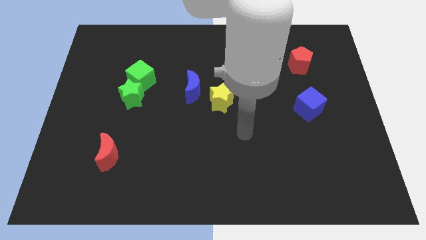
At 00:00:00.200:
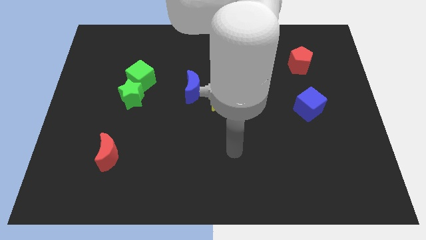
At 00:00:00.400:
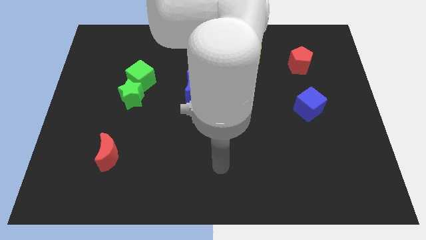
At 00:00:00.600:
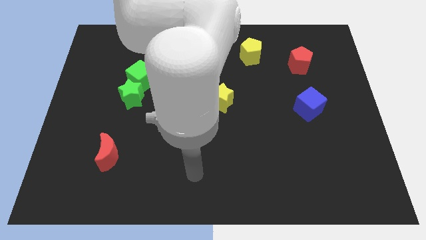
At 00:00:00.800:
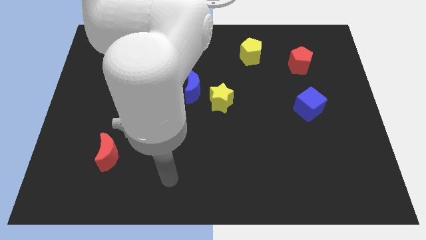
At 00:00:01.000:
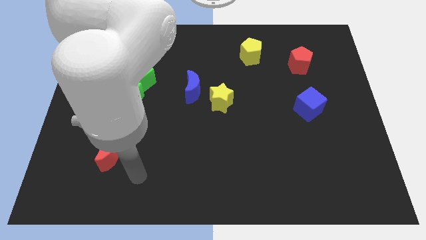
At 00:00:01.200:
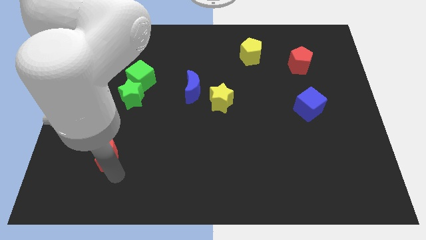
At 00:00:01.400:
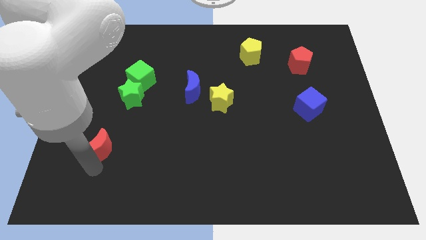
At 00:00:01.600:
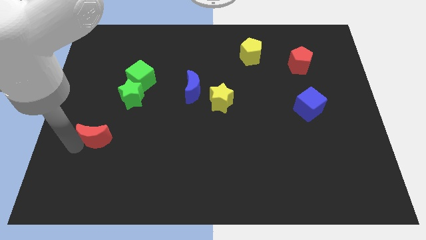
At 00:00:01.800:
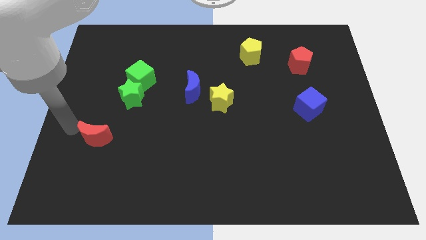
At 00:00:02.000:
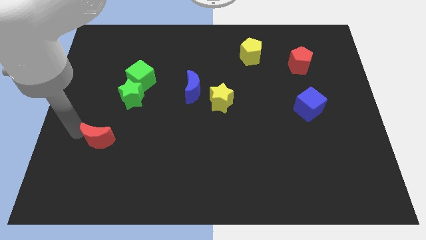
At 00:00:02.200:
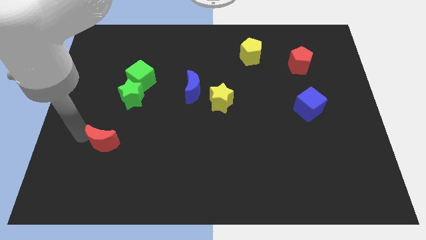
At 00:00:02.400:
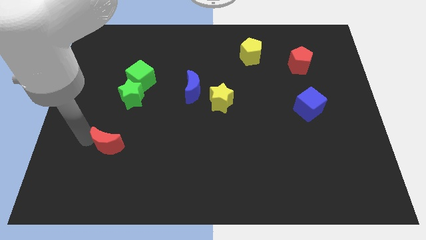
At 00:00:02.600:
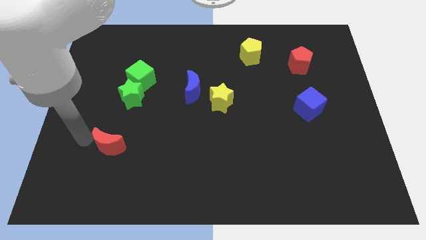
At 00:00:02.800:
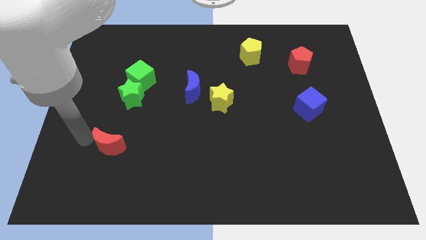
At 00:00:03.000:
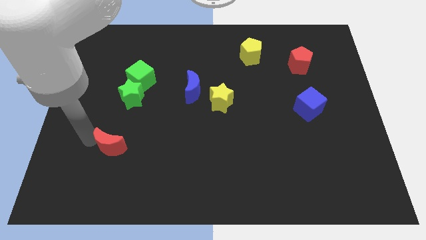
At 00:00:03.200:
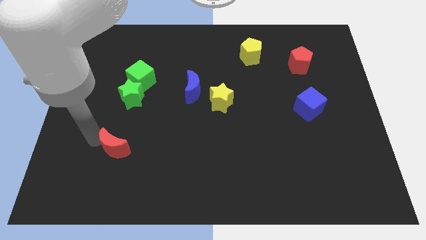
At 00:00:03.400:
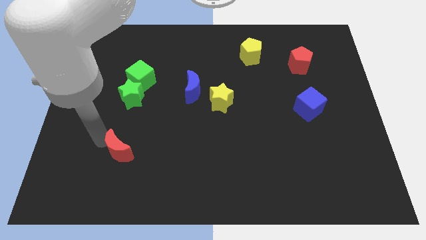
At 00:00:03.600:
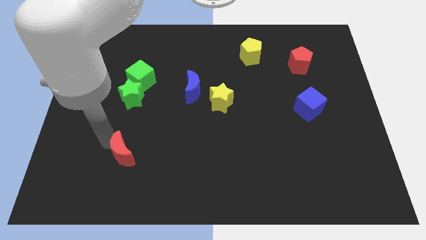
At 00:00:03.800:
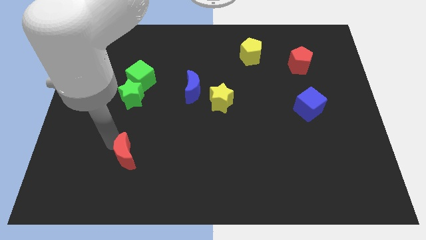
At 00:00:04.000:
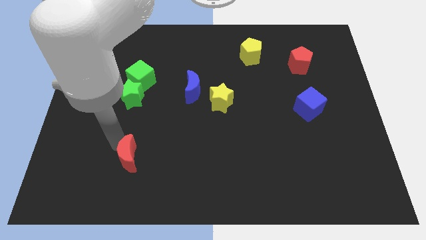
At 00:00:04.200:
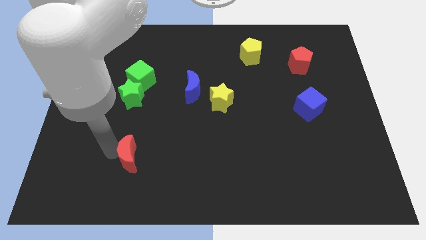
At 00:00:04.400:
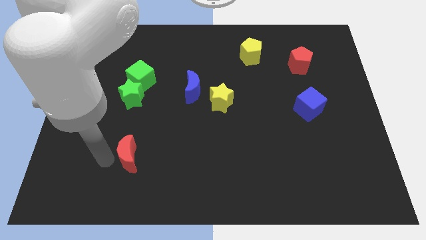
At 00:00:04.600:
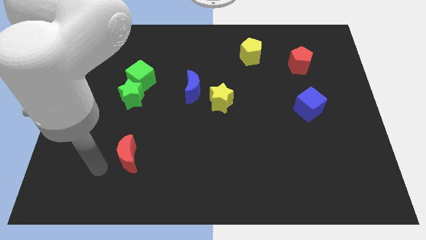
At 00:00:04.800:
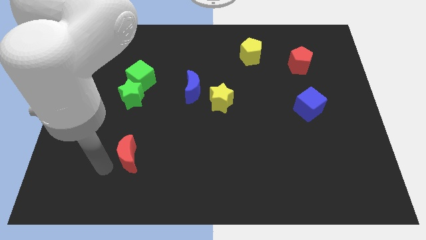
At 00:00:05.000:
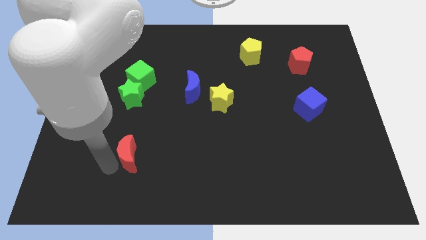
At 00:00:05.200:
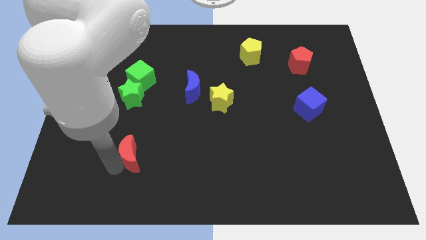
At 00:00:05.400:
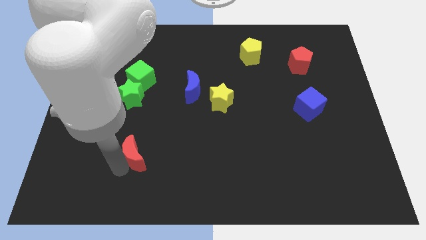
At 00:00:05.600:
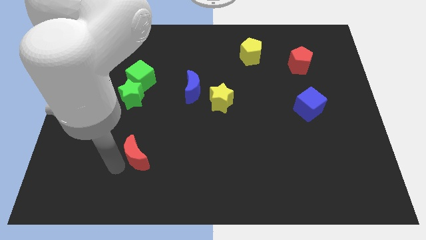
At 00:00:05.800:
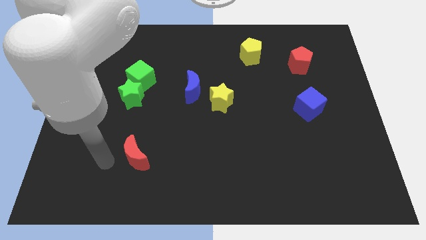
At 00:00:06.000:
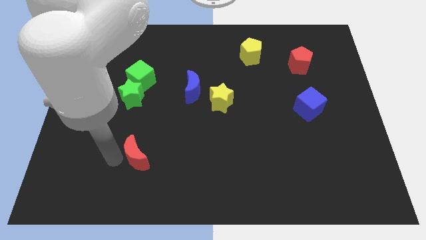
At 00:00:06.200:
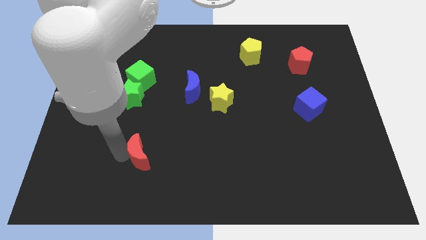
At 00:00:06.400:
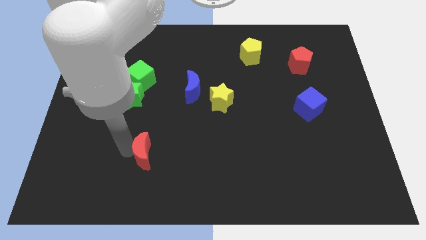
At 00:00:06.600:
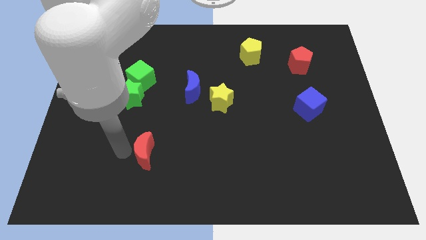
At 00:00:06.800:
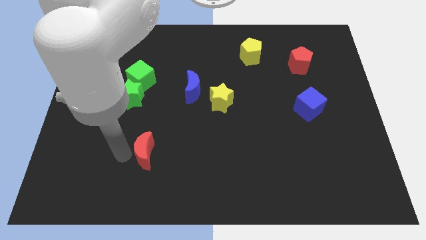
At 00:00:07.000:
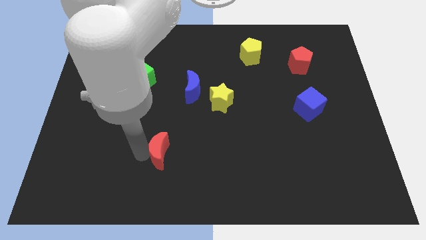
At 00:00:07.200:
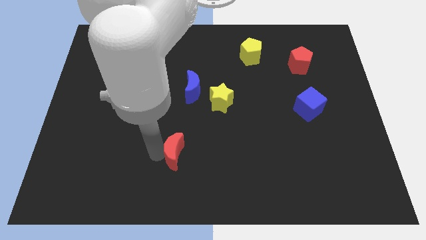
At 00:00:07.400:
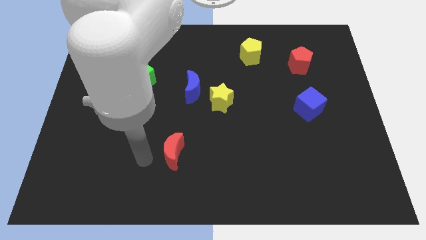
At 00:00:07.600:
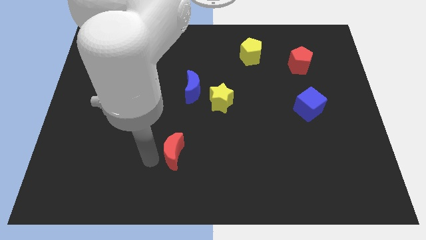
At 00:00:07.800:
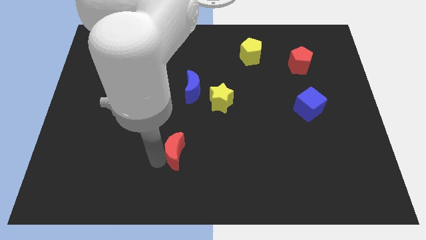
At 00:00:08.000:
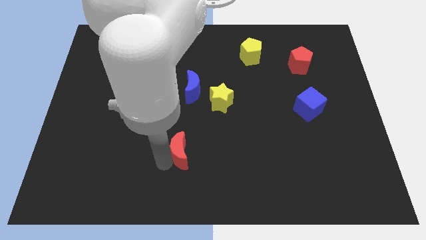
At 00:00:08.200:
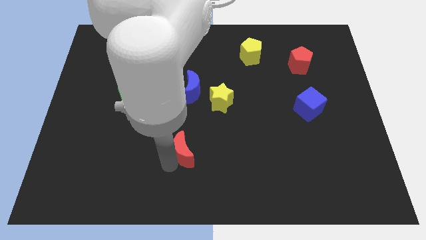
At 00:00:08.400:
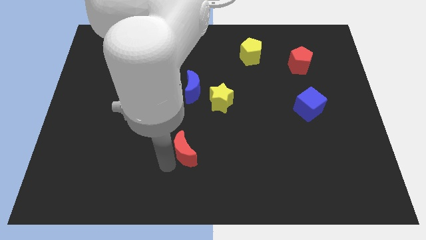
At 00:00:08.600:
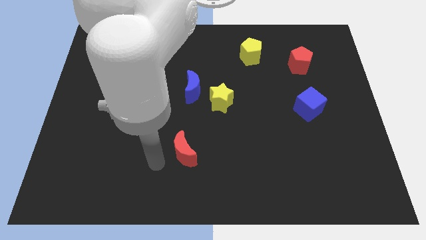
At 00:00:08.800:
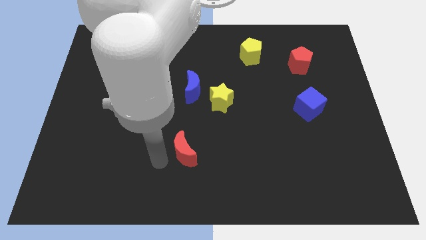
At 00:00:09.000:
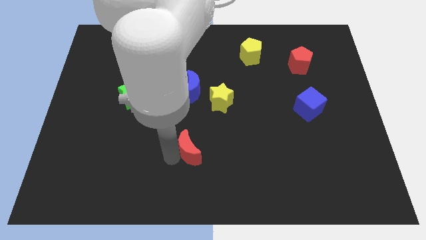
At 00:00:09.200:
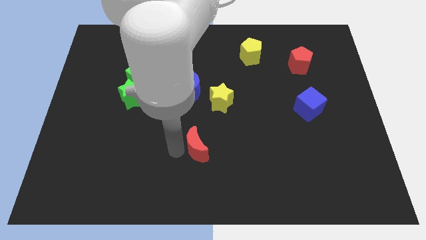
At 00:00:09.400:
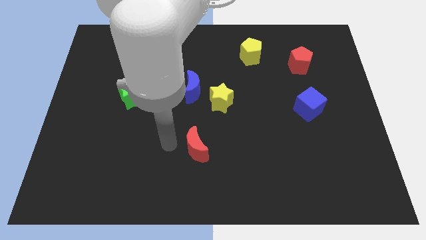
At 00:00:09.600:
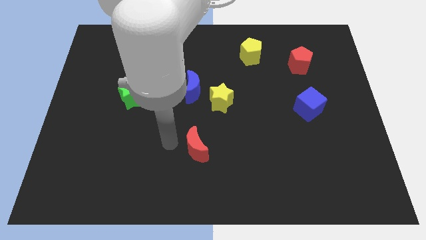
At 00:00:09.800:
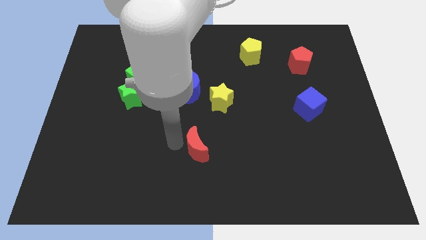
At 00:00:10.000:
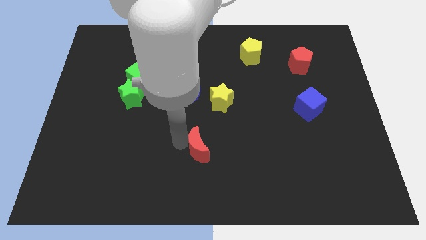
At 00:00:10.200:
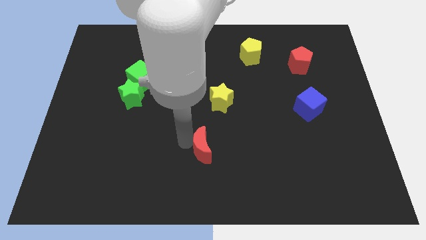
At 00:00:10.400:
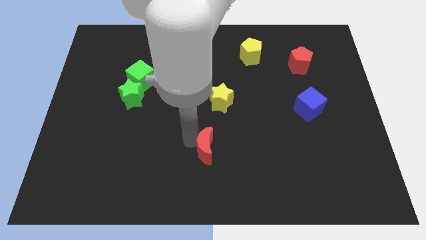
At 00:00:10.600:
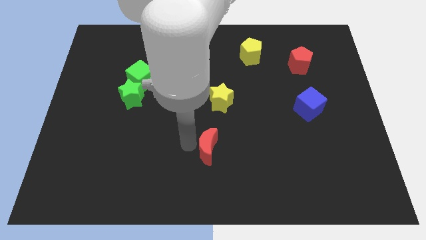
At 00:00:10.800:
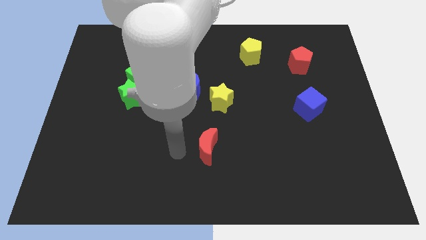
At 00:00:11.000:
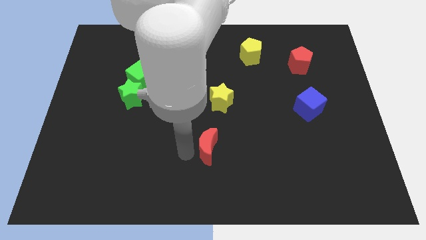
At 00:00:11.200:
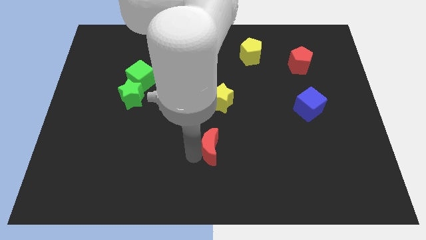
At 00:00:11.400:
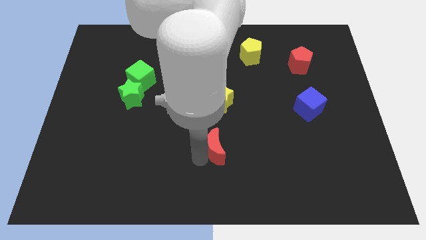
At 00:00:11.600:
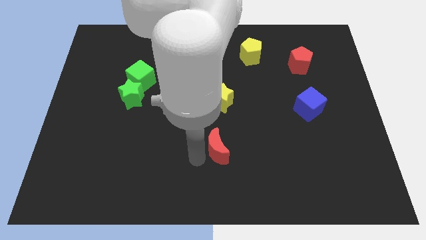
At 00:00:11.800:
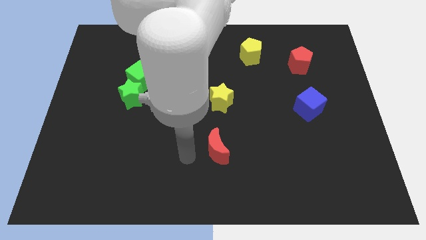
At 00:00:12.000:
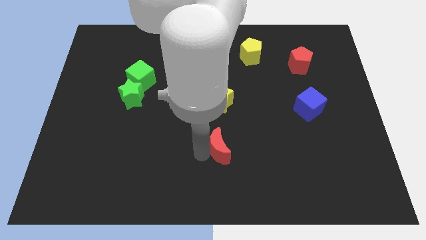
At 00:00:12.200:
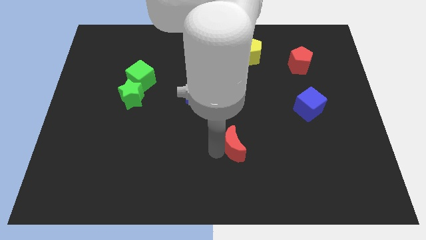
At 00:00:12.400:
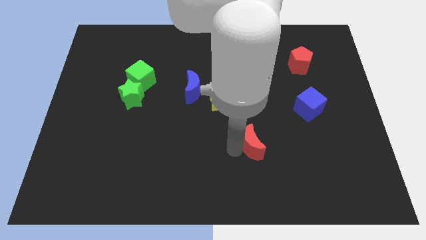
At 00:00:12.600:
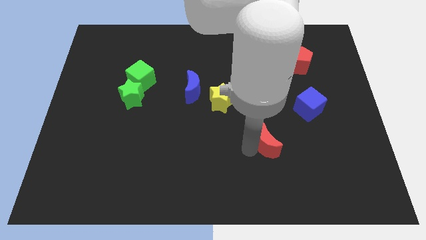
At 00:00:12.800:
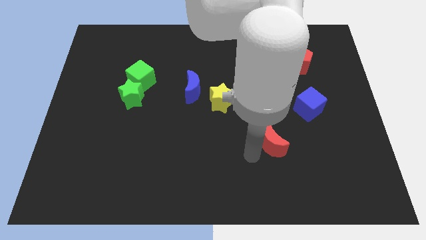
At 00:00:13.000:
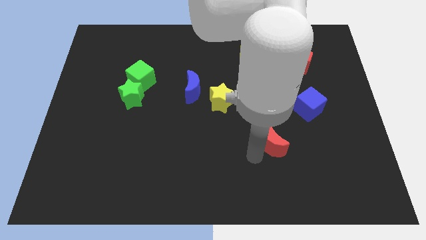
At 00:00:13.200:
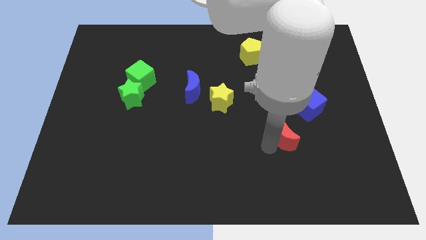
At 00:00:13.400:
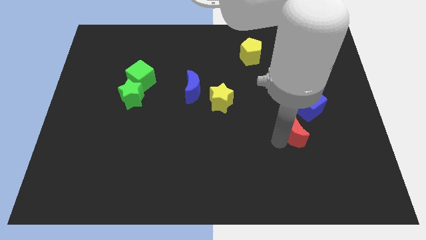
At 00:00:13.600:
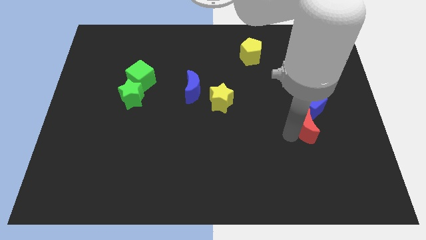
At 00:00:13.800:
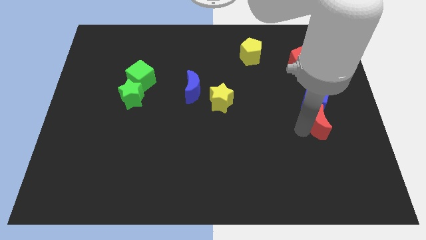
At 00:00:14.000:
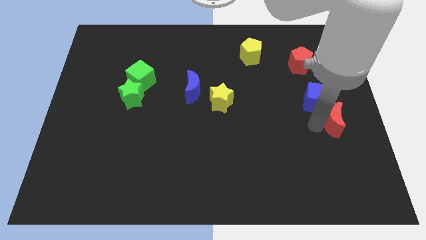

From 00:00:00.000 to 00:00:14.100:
move the red moon to the center right
